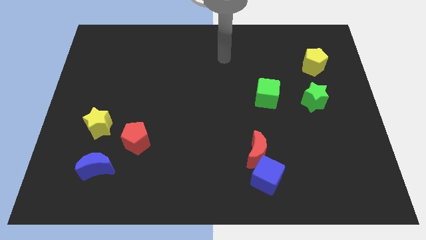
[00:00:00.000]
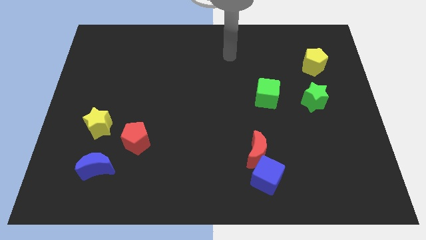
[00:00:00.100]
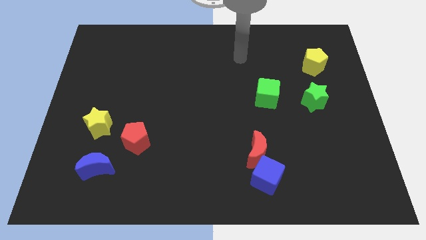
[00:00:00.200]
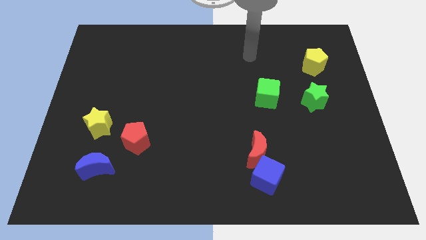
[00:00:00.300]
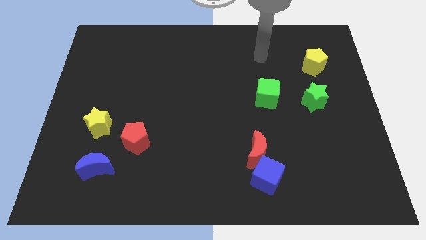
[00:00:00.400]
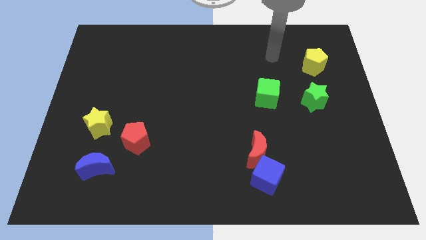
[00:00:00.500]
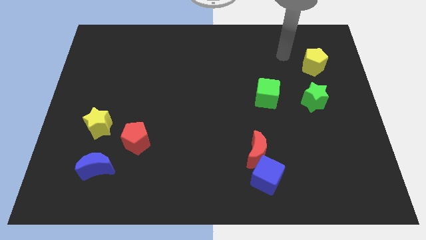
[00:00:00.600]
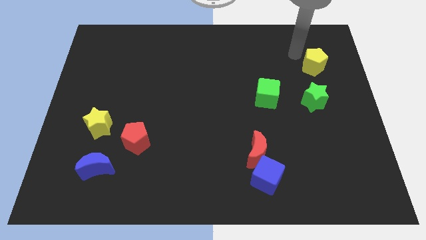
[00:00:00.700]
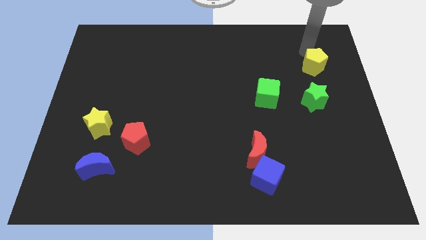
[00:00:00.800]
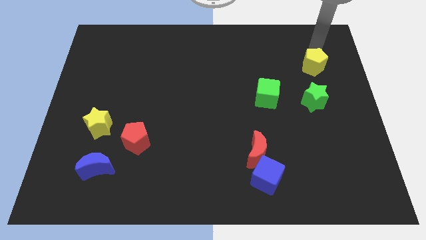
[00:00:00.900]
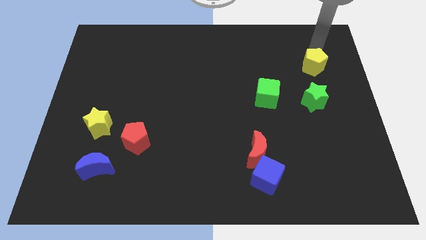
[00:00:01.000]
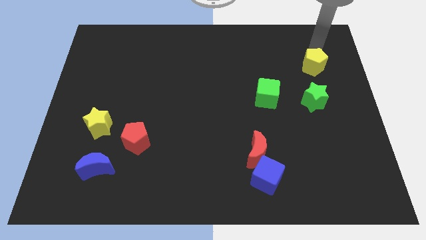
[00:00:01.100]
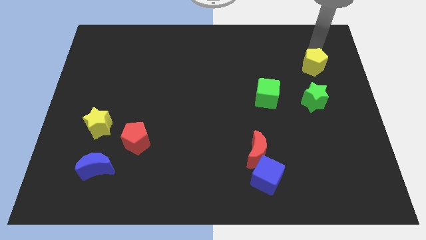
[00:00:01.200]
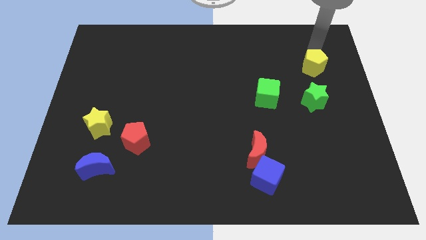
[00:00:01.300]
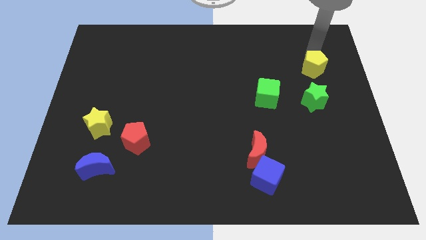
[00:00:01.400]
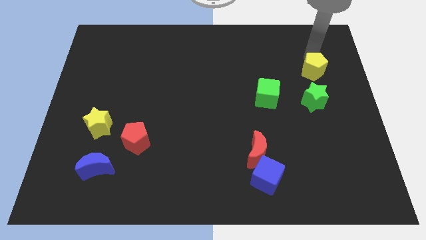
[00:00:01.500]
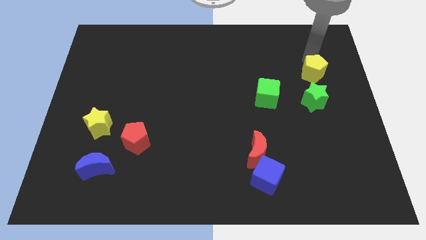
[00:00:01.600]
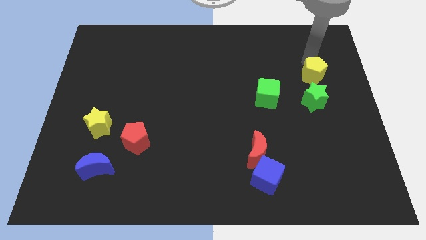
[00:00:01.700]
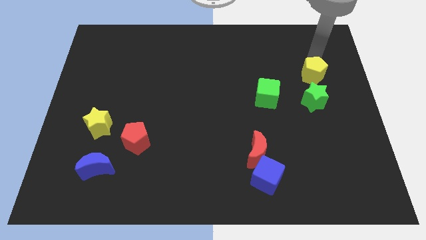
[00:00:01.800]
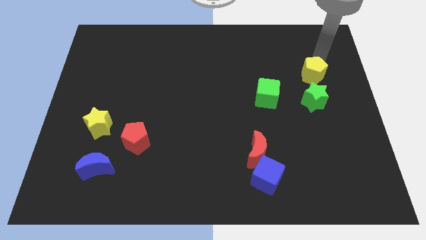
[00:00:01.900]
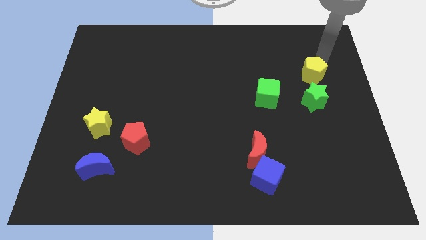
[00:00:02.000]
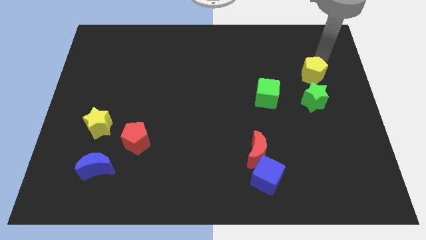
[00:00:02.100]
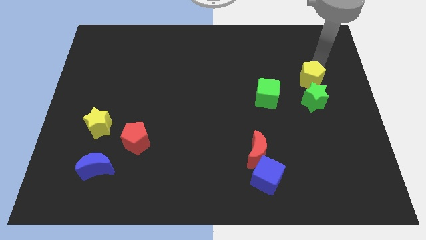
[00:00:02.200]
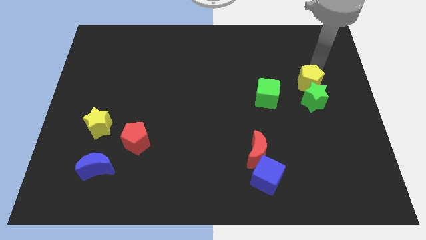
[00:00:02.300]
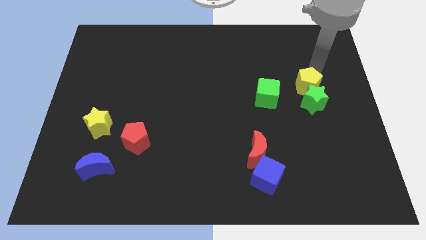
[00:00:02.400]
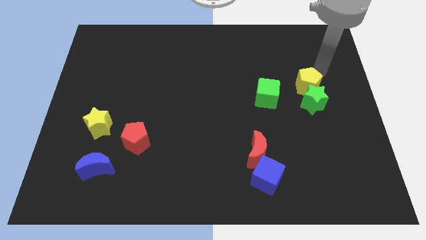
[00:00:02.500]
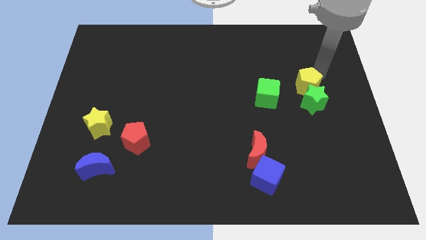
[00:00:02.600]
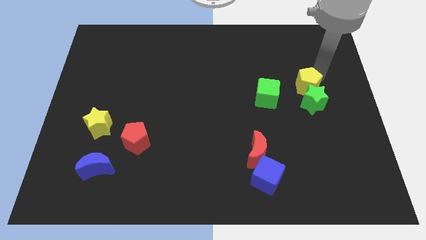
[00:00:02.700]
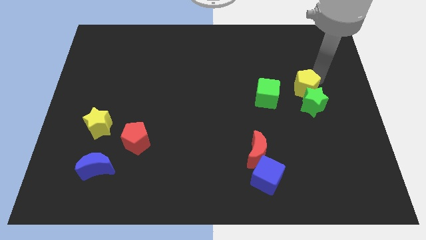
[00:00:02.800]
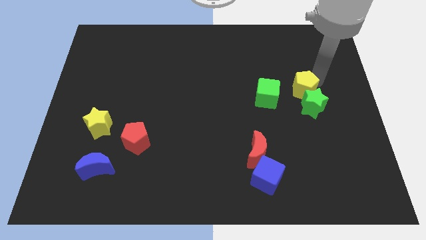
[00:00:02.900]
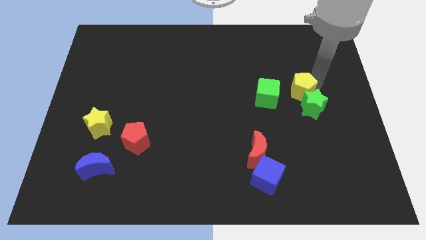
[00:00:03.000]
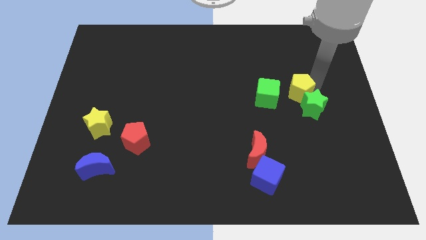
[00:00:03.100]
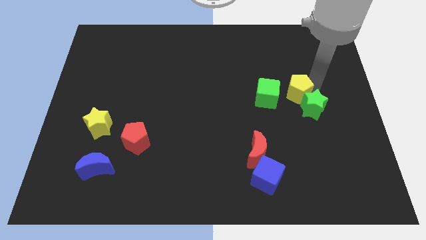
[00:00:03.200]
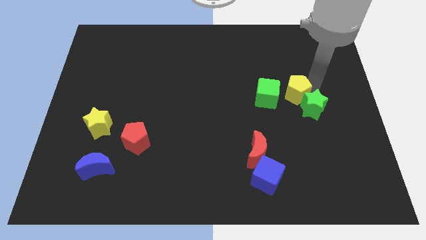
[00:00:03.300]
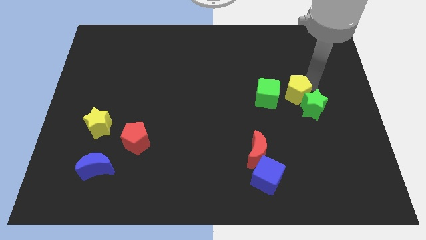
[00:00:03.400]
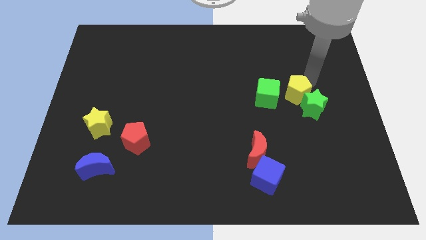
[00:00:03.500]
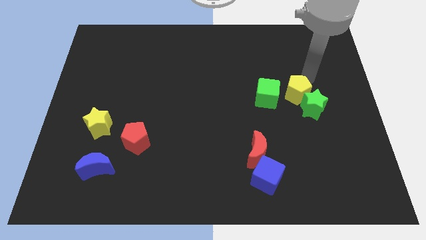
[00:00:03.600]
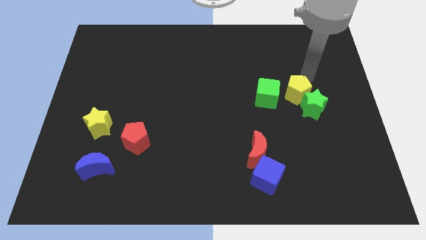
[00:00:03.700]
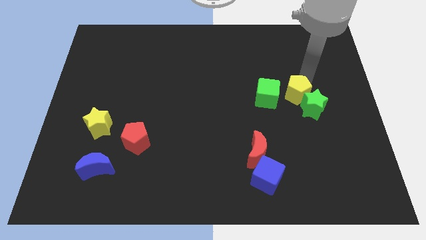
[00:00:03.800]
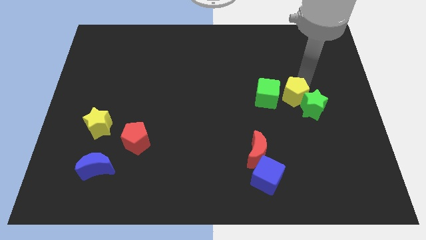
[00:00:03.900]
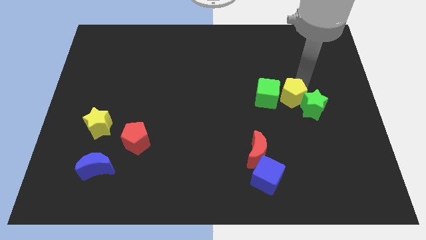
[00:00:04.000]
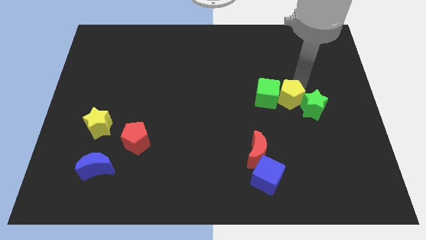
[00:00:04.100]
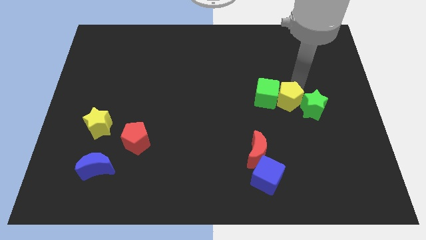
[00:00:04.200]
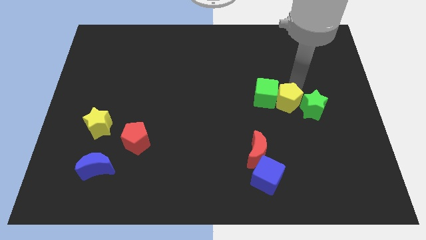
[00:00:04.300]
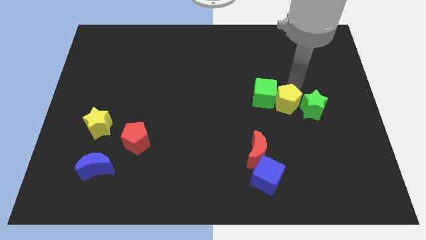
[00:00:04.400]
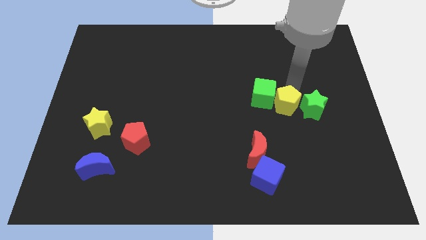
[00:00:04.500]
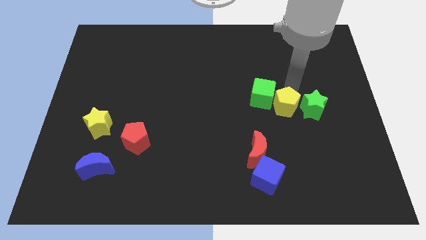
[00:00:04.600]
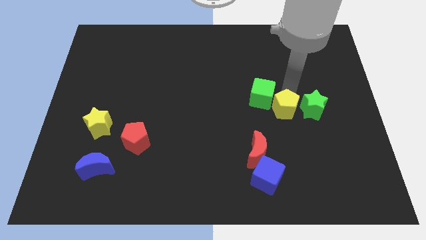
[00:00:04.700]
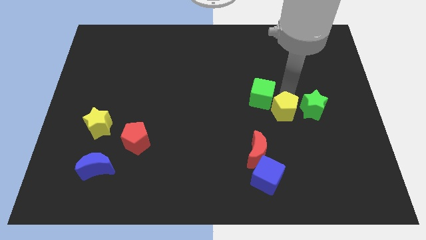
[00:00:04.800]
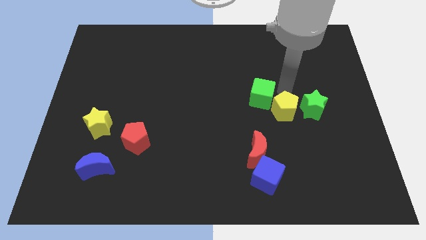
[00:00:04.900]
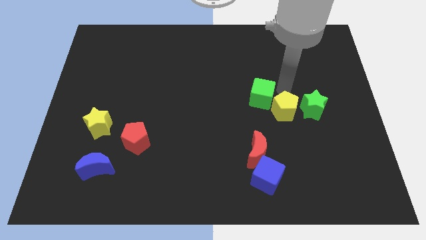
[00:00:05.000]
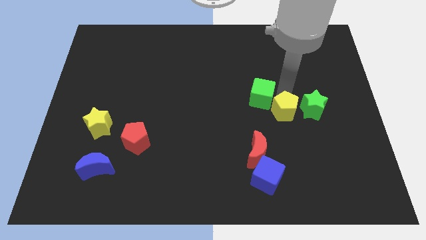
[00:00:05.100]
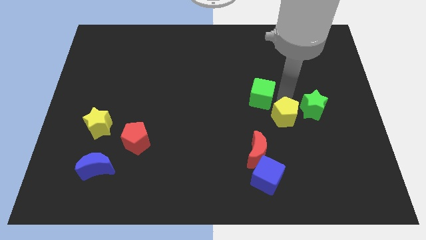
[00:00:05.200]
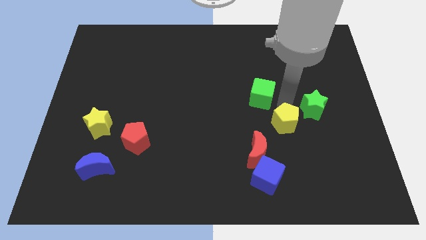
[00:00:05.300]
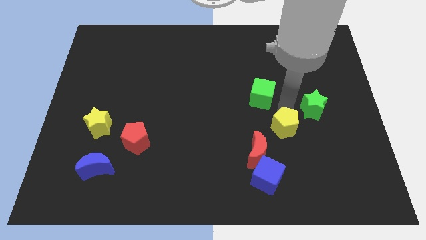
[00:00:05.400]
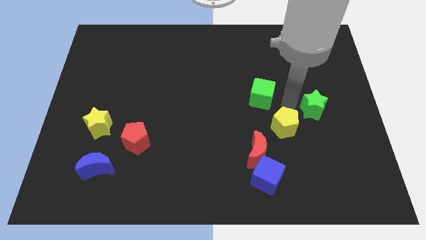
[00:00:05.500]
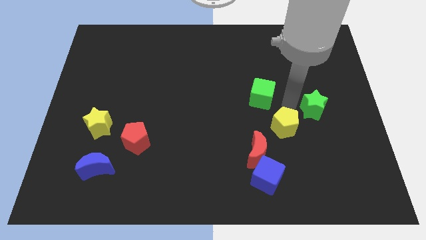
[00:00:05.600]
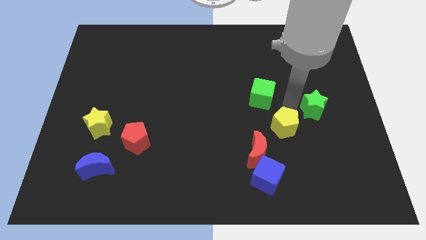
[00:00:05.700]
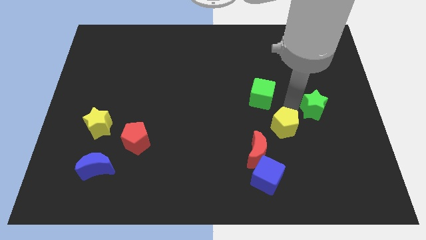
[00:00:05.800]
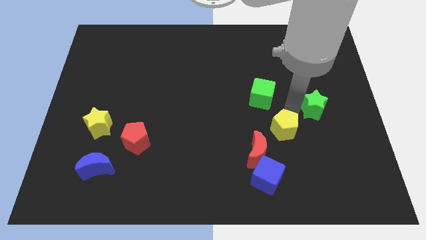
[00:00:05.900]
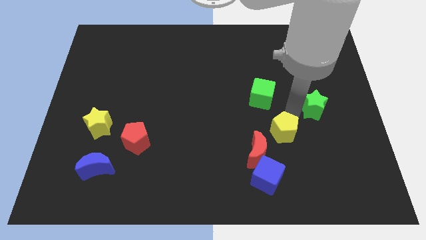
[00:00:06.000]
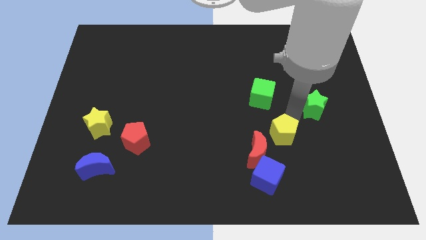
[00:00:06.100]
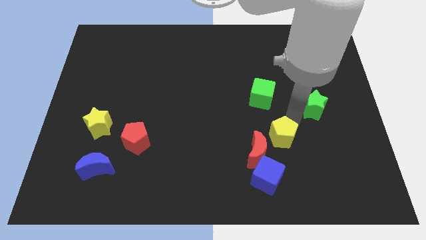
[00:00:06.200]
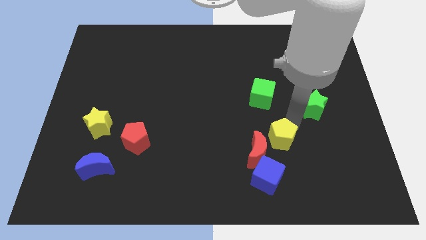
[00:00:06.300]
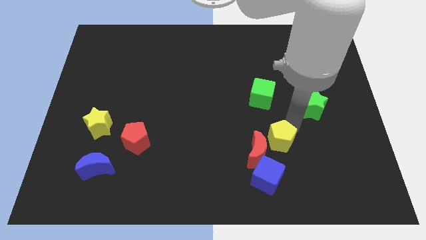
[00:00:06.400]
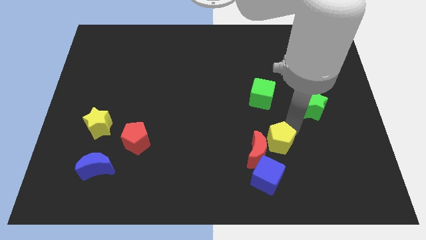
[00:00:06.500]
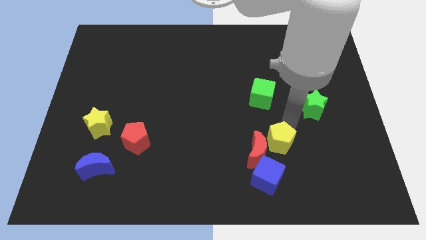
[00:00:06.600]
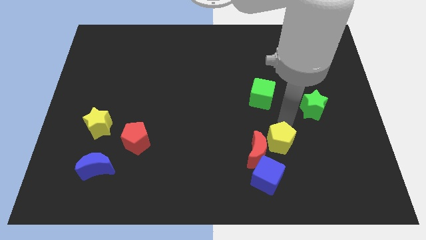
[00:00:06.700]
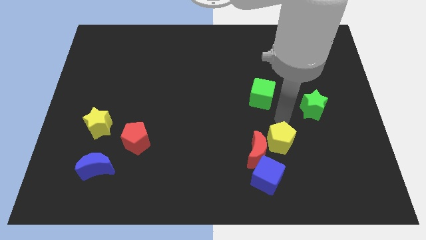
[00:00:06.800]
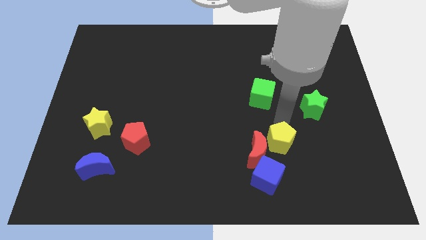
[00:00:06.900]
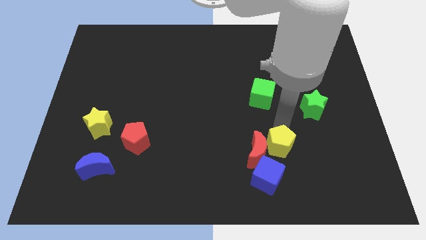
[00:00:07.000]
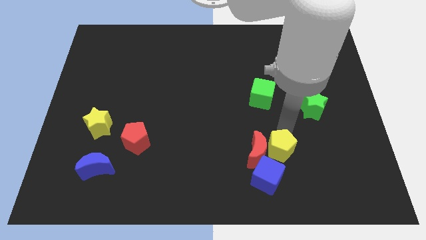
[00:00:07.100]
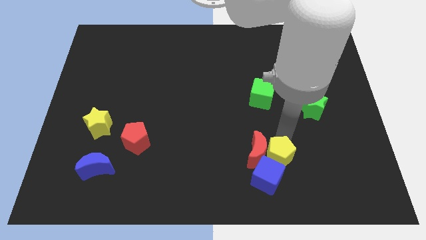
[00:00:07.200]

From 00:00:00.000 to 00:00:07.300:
put the yellow pentagon next to the blue cube

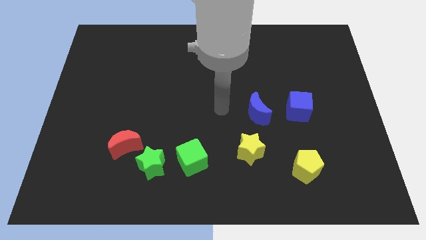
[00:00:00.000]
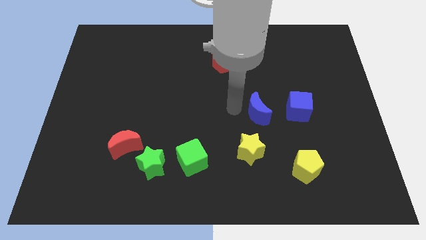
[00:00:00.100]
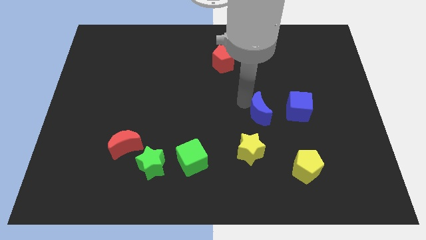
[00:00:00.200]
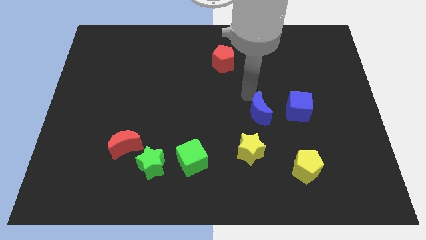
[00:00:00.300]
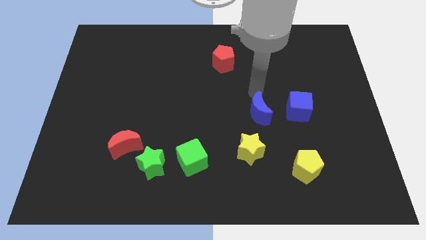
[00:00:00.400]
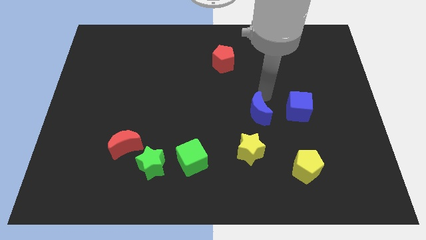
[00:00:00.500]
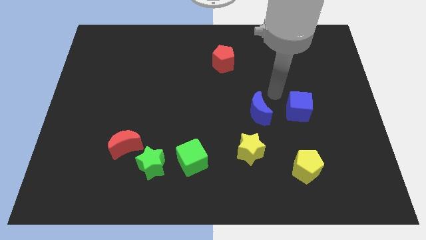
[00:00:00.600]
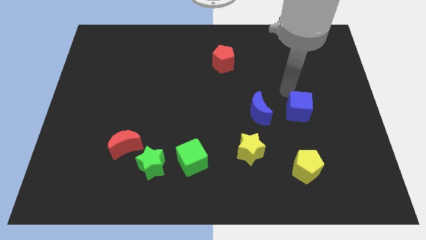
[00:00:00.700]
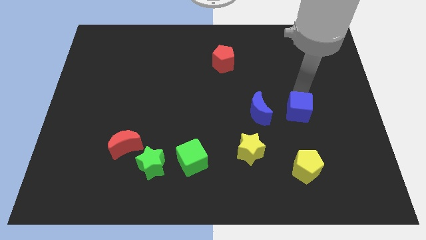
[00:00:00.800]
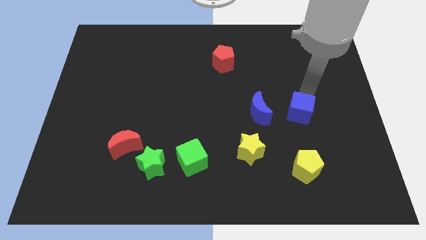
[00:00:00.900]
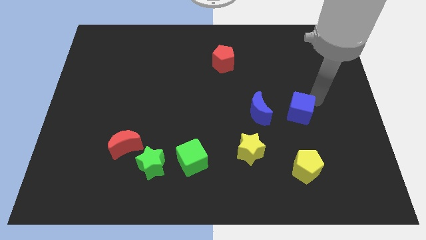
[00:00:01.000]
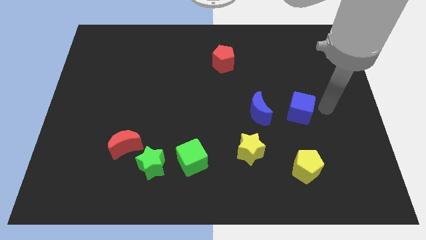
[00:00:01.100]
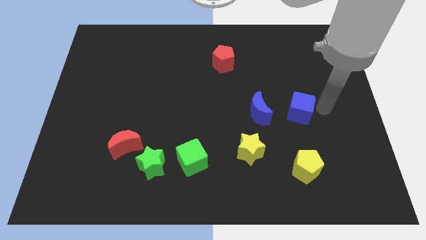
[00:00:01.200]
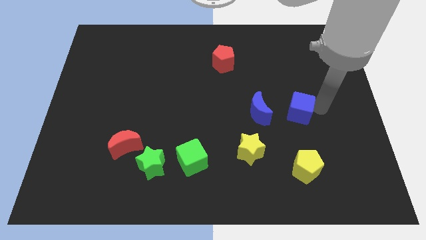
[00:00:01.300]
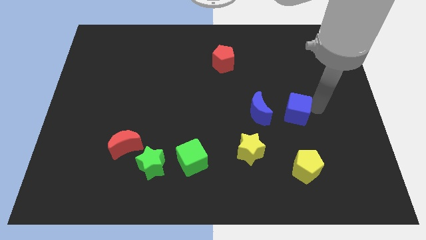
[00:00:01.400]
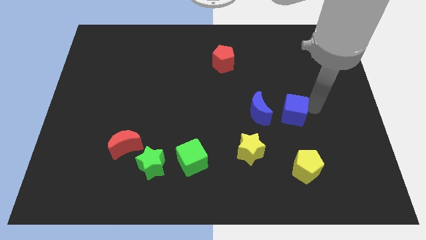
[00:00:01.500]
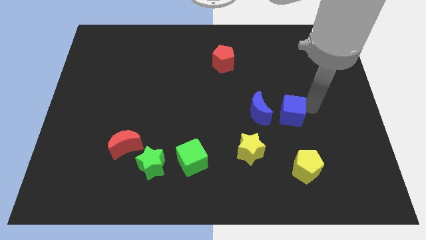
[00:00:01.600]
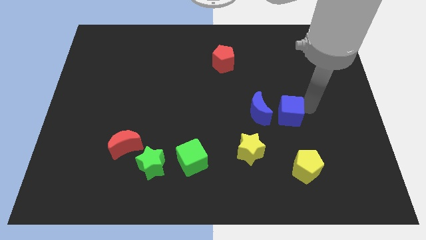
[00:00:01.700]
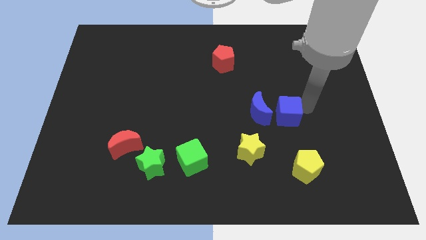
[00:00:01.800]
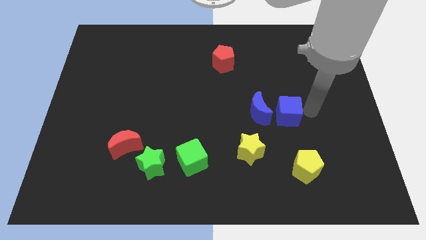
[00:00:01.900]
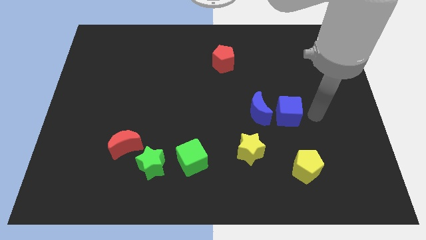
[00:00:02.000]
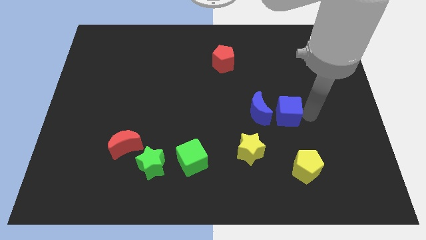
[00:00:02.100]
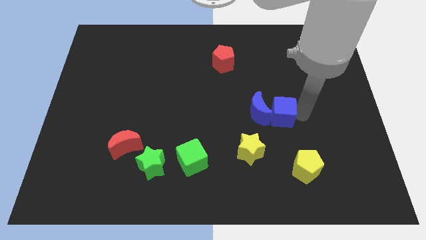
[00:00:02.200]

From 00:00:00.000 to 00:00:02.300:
put the blue cube towards the blue moon
